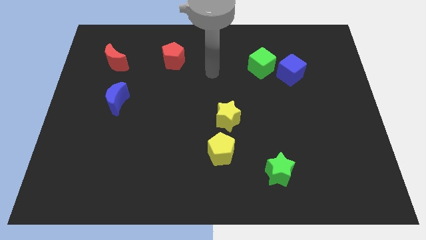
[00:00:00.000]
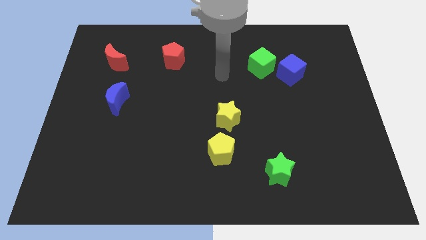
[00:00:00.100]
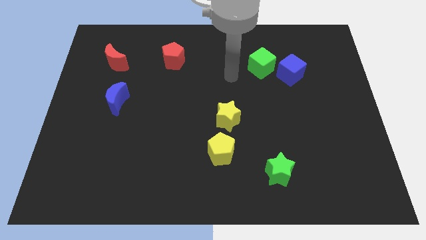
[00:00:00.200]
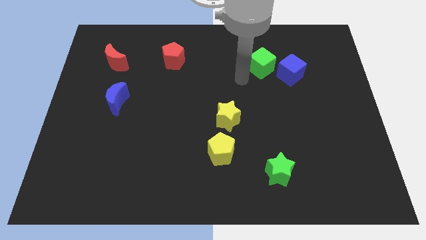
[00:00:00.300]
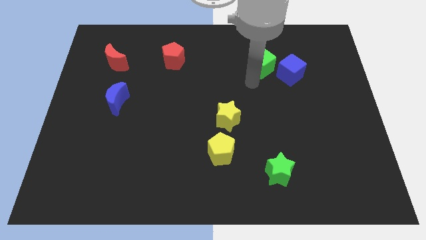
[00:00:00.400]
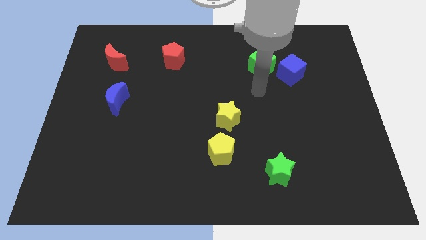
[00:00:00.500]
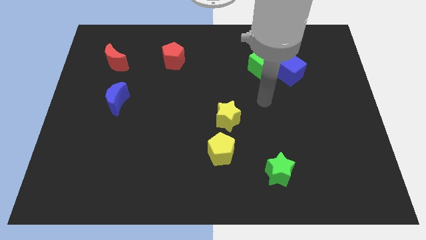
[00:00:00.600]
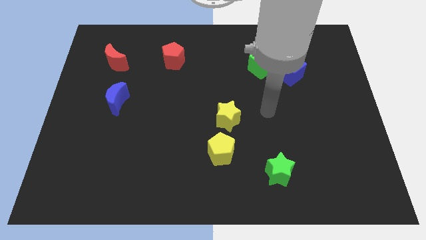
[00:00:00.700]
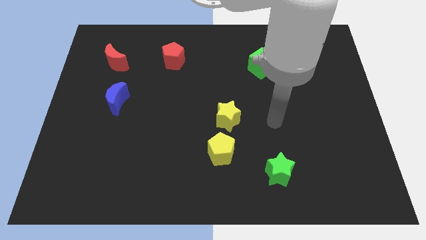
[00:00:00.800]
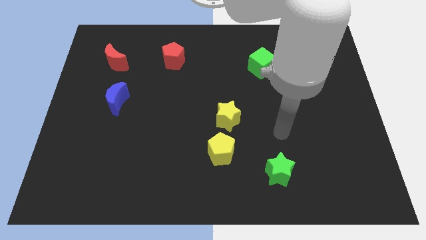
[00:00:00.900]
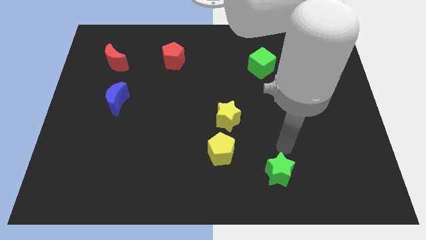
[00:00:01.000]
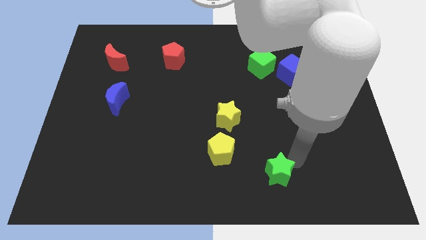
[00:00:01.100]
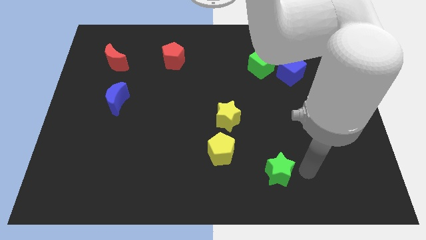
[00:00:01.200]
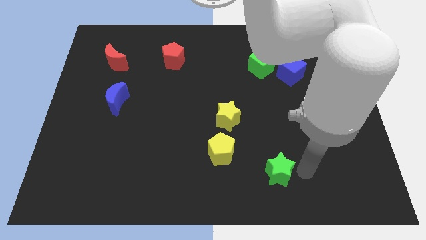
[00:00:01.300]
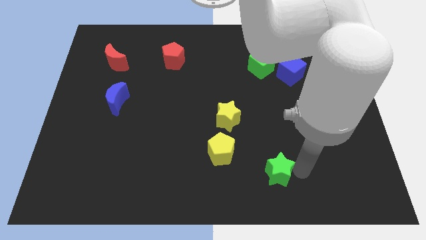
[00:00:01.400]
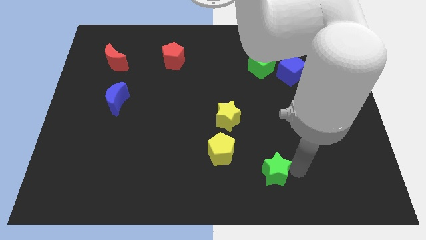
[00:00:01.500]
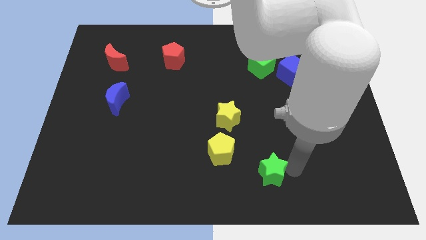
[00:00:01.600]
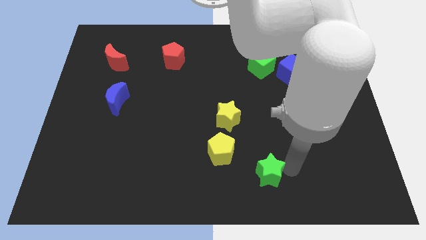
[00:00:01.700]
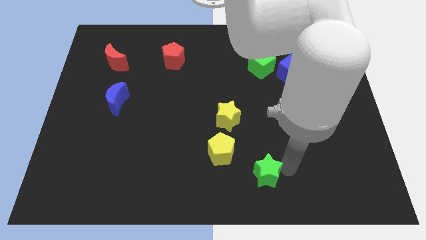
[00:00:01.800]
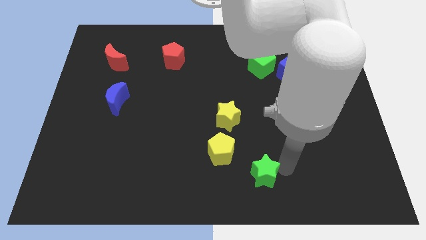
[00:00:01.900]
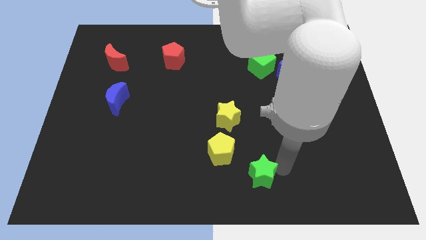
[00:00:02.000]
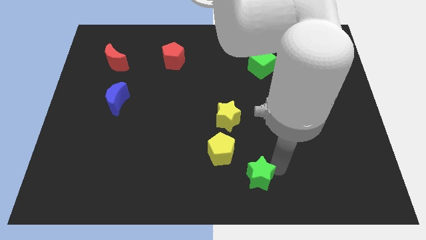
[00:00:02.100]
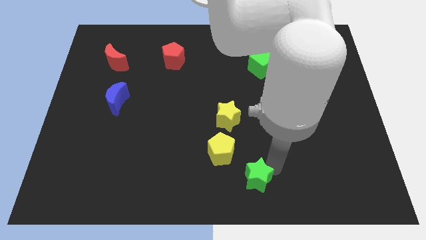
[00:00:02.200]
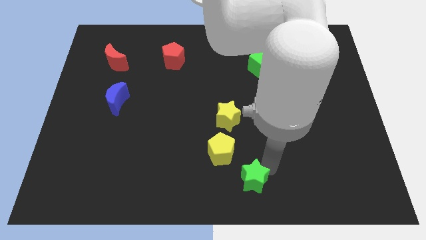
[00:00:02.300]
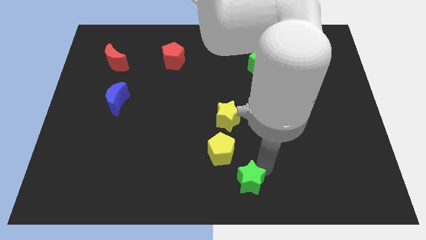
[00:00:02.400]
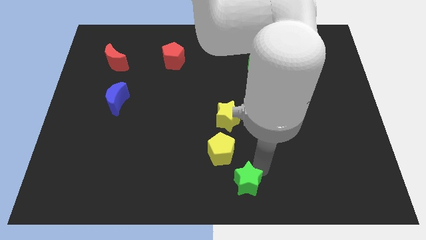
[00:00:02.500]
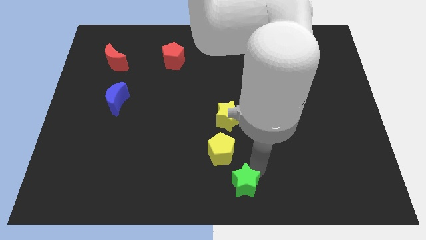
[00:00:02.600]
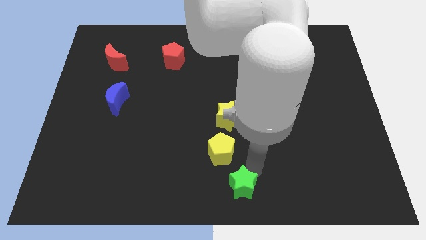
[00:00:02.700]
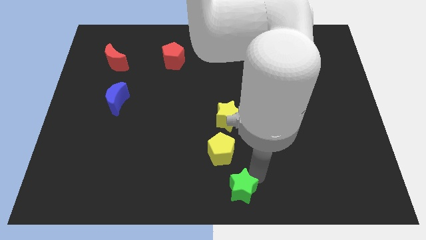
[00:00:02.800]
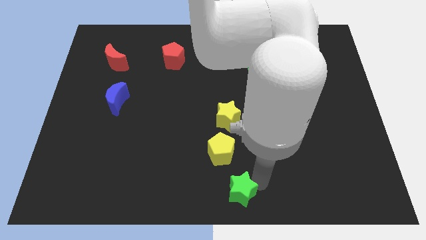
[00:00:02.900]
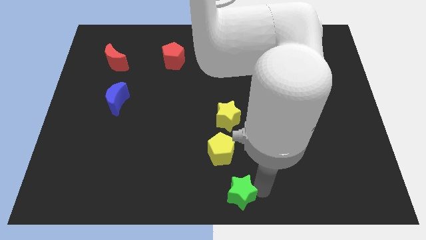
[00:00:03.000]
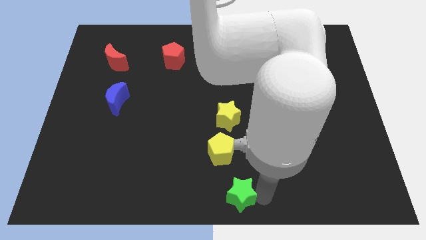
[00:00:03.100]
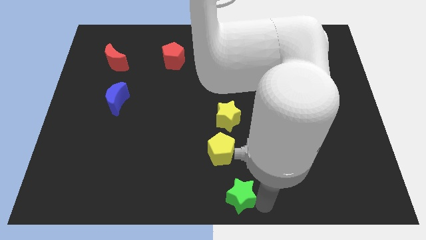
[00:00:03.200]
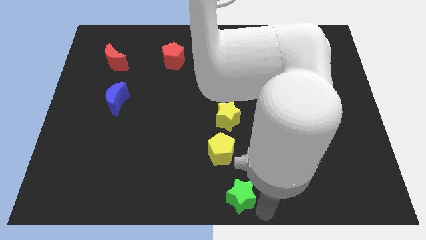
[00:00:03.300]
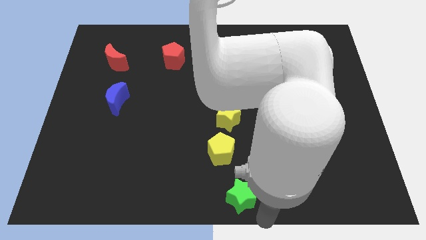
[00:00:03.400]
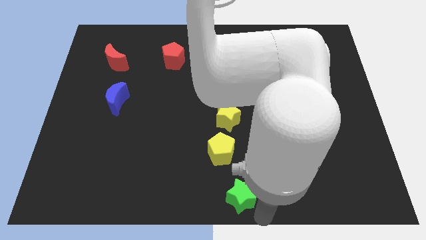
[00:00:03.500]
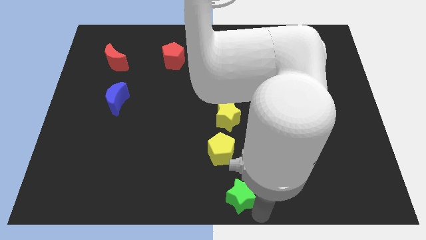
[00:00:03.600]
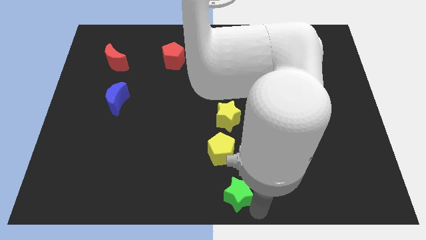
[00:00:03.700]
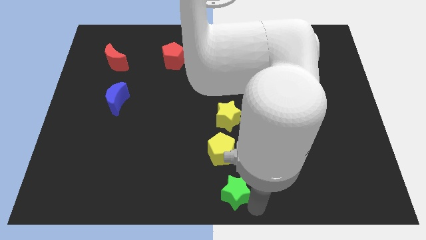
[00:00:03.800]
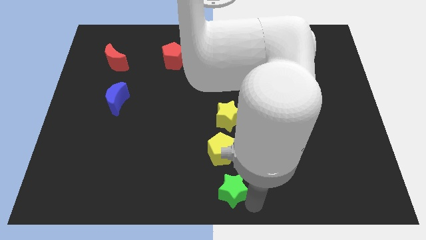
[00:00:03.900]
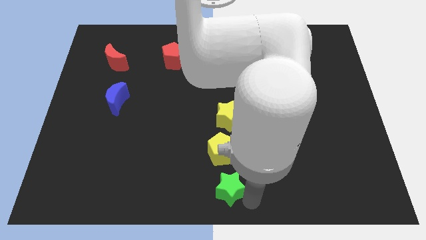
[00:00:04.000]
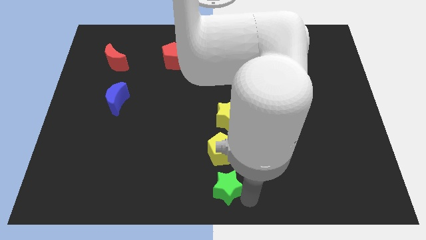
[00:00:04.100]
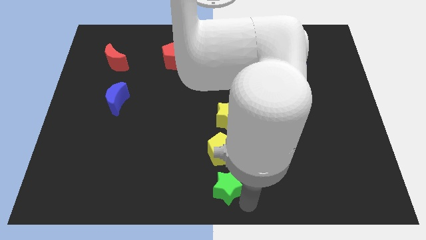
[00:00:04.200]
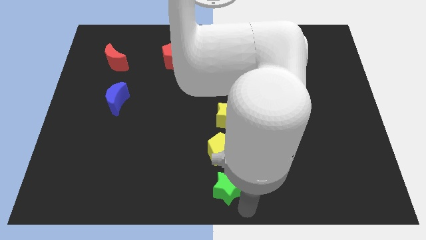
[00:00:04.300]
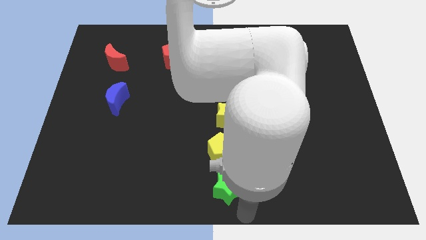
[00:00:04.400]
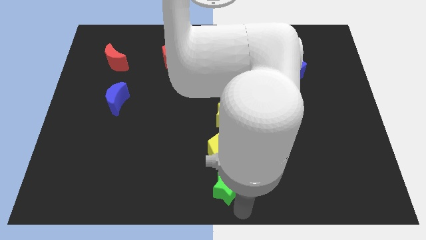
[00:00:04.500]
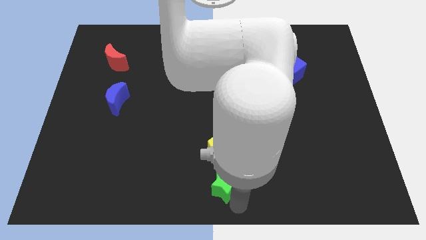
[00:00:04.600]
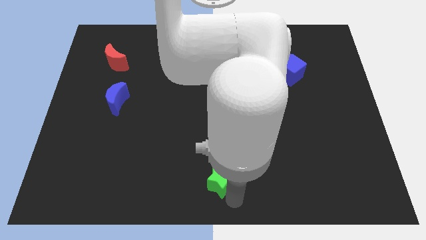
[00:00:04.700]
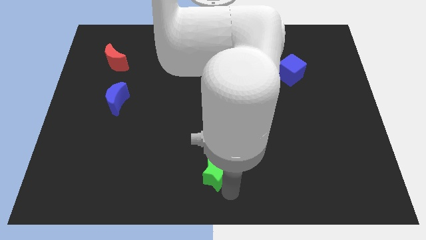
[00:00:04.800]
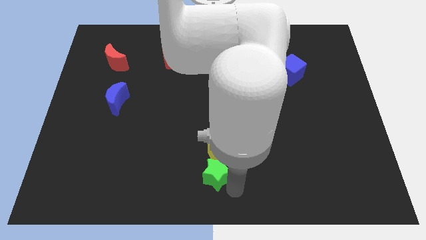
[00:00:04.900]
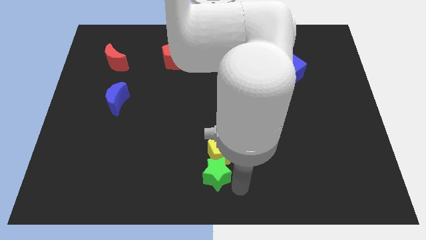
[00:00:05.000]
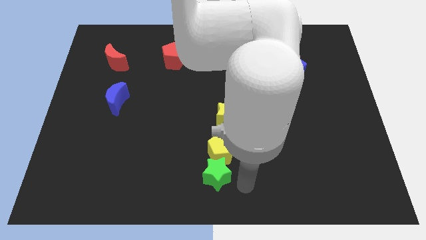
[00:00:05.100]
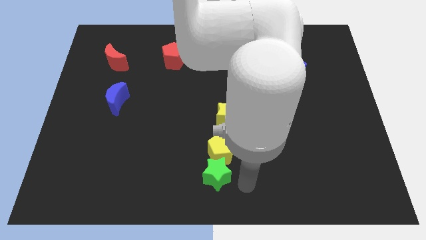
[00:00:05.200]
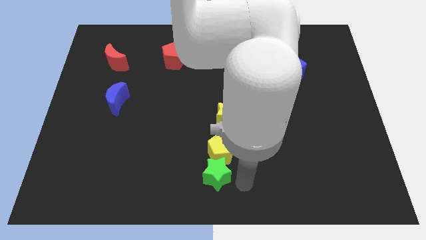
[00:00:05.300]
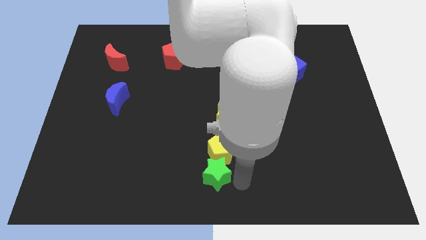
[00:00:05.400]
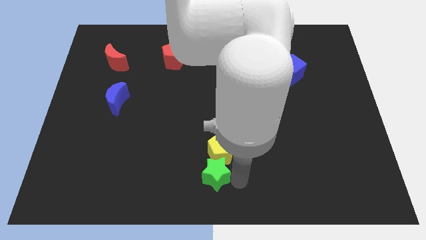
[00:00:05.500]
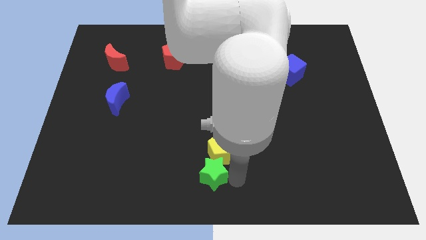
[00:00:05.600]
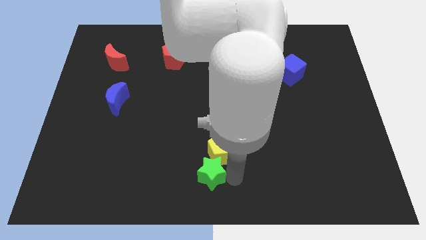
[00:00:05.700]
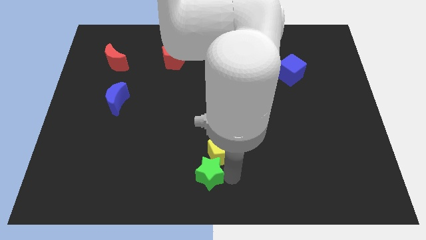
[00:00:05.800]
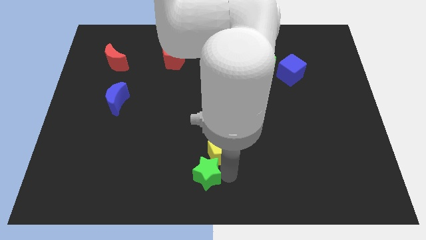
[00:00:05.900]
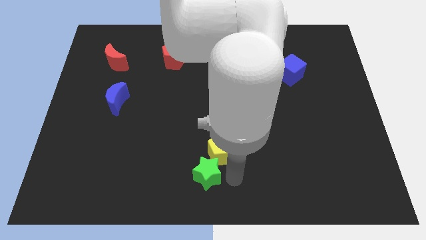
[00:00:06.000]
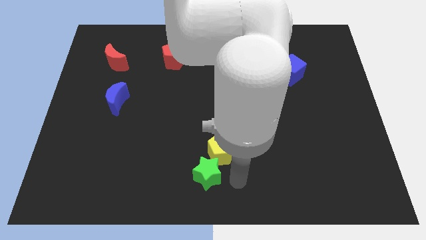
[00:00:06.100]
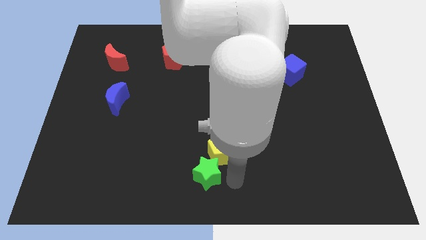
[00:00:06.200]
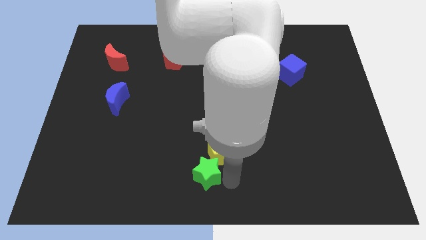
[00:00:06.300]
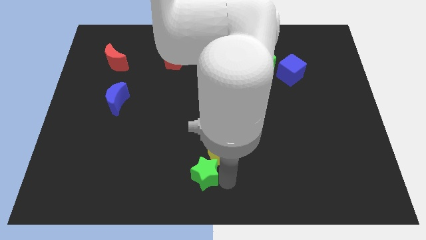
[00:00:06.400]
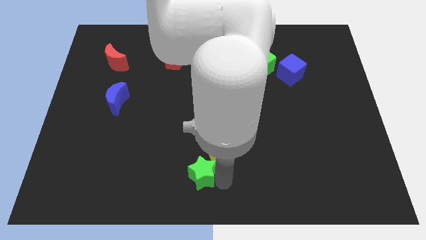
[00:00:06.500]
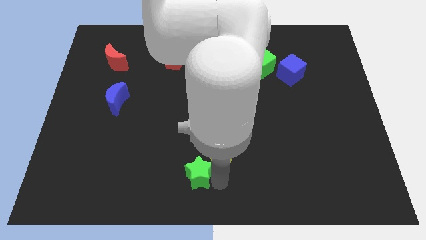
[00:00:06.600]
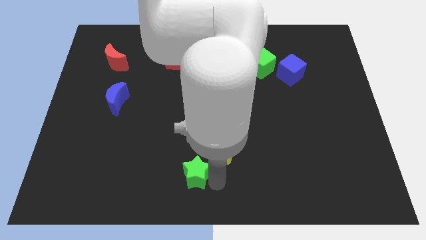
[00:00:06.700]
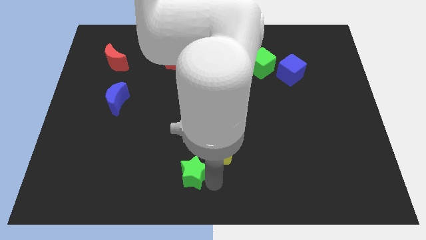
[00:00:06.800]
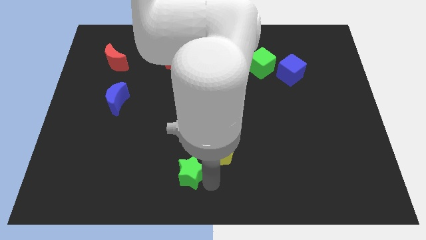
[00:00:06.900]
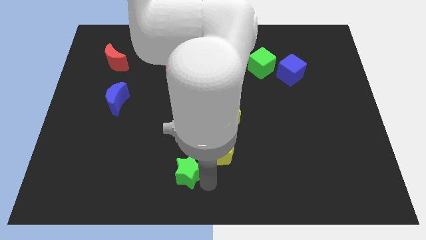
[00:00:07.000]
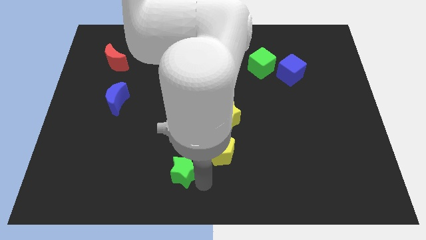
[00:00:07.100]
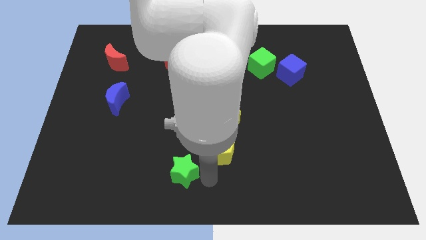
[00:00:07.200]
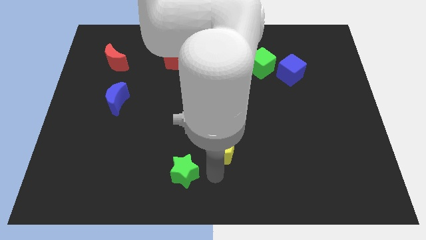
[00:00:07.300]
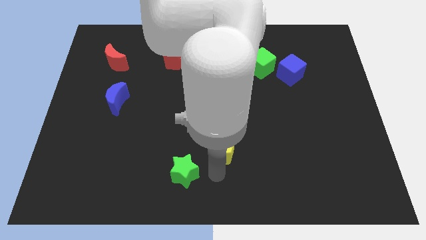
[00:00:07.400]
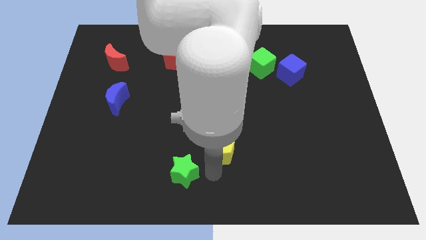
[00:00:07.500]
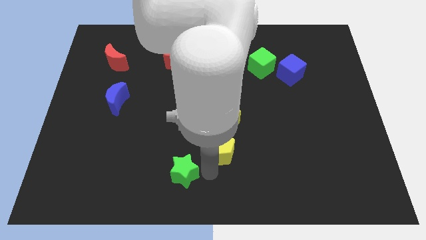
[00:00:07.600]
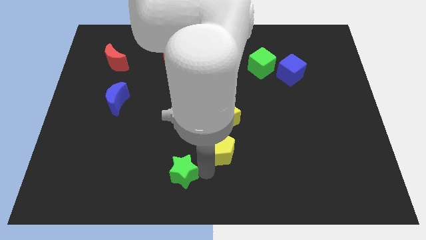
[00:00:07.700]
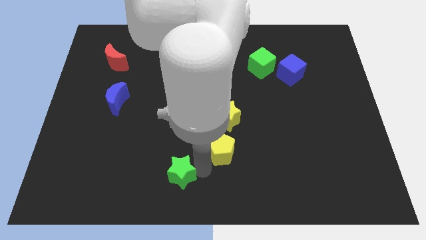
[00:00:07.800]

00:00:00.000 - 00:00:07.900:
move the green star to the left
